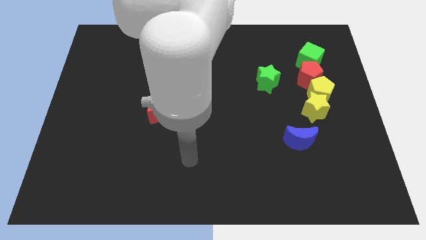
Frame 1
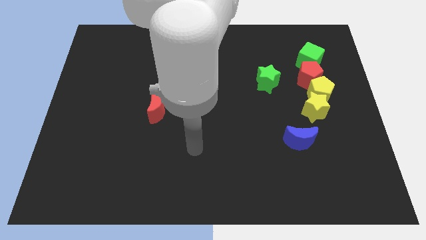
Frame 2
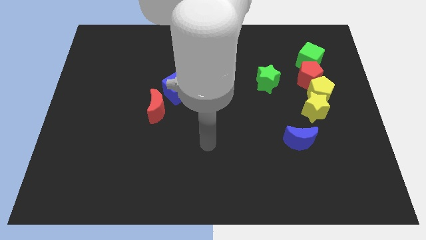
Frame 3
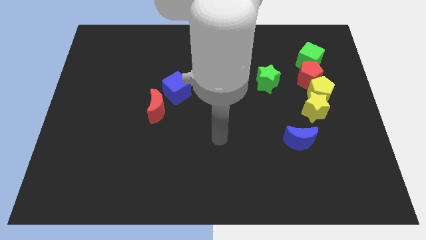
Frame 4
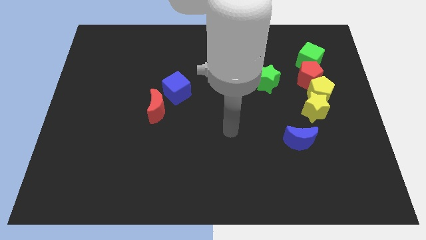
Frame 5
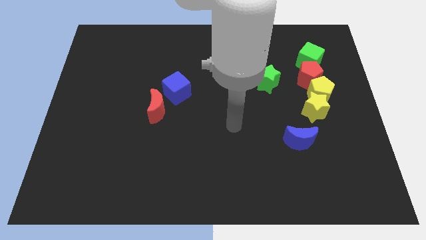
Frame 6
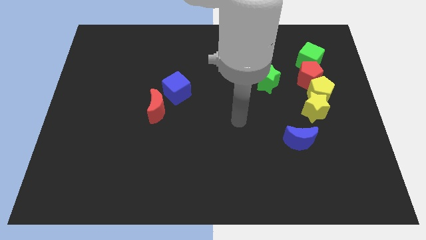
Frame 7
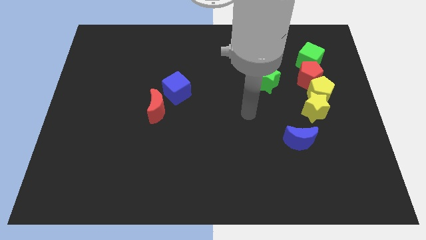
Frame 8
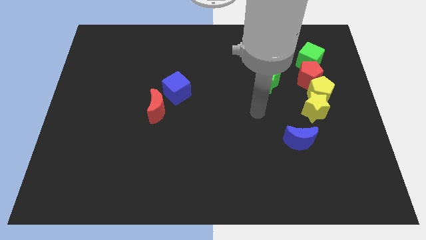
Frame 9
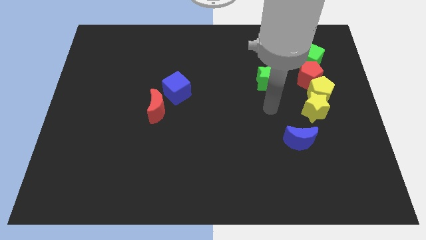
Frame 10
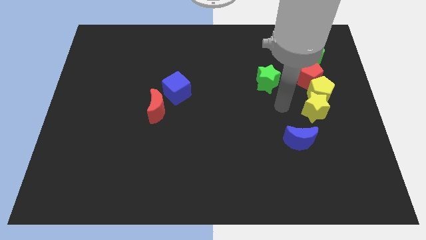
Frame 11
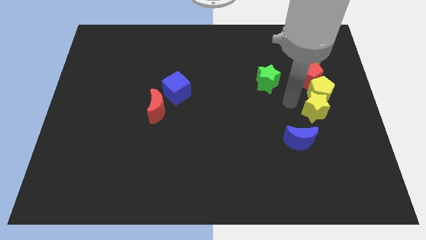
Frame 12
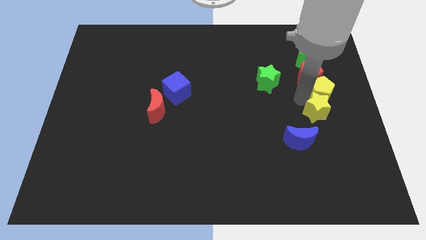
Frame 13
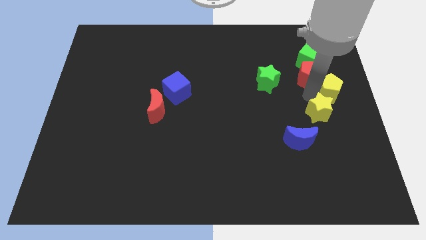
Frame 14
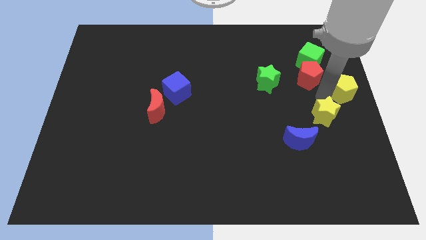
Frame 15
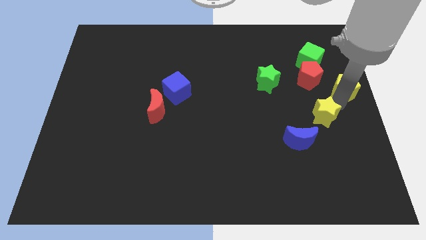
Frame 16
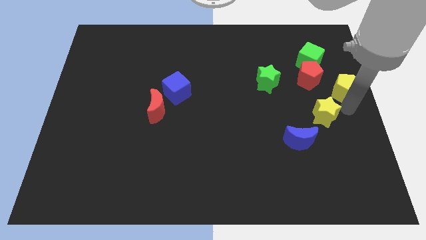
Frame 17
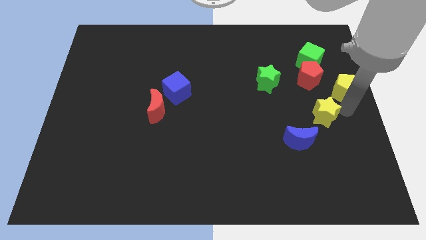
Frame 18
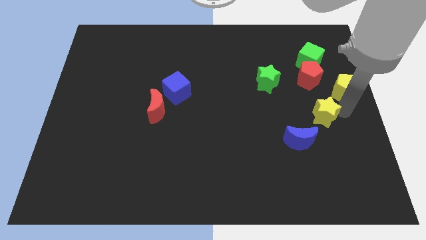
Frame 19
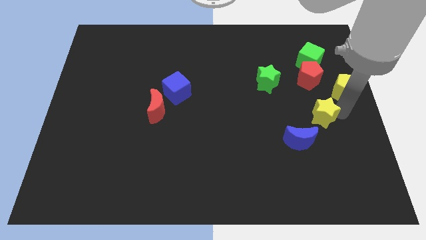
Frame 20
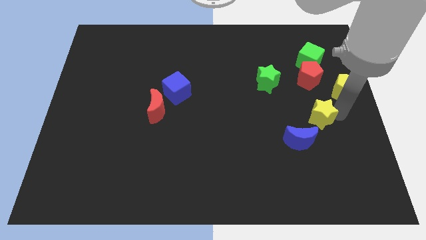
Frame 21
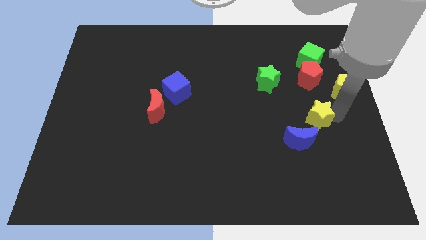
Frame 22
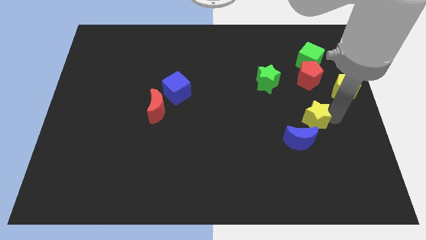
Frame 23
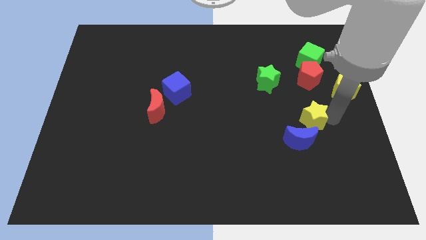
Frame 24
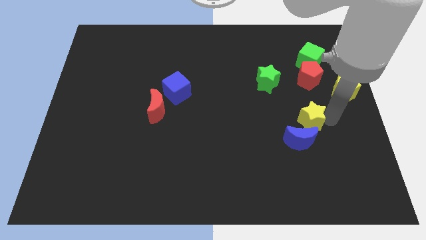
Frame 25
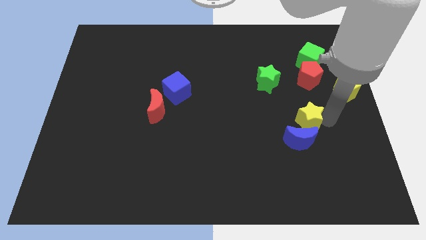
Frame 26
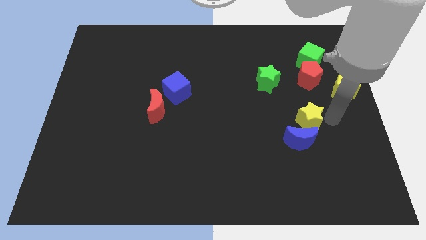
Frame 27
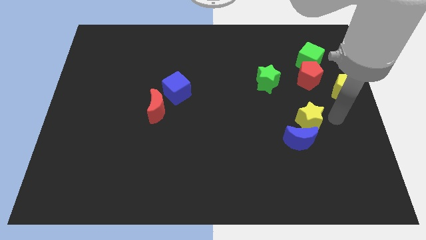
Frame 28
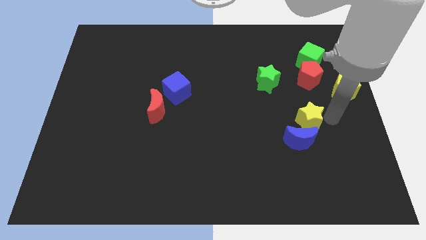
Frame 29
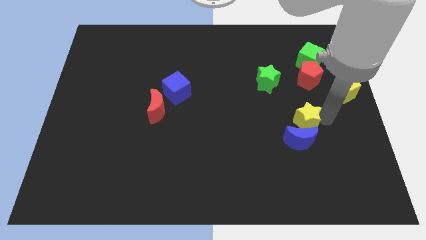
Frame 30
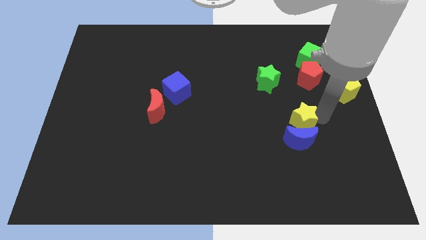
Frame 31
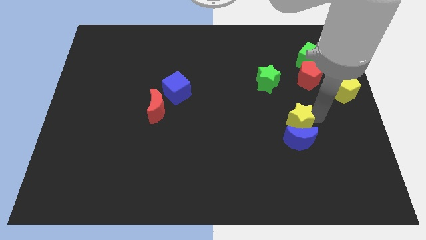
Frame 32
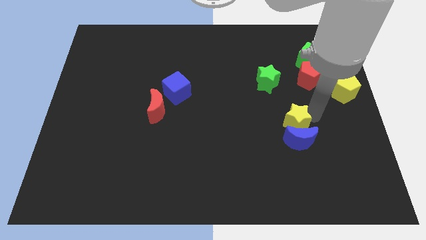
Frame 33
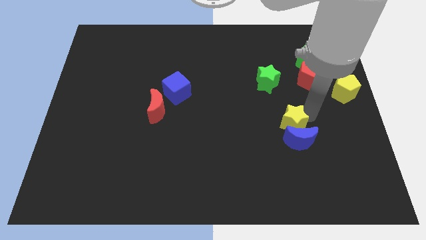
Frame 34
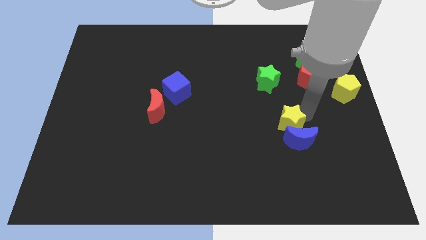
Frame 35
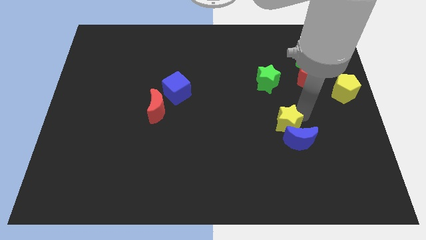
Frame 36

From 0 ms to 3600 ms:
slide the yellow star a little downwards and then to the left

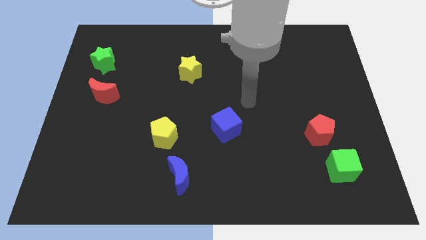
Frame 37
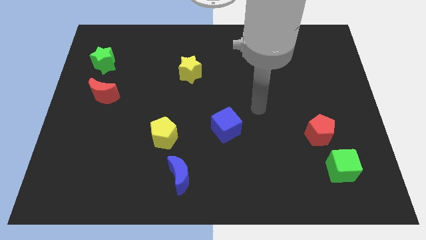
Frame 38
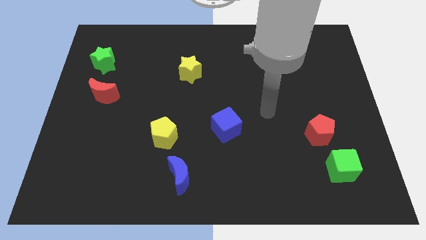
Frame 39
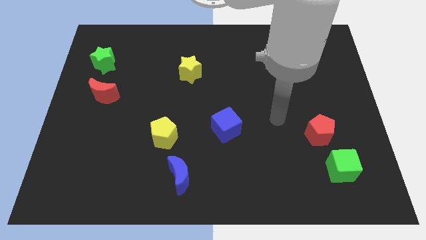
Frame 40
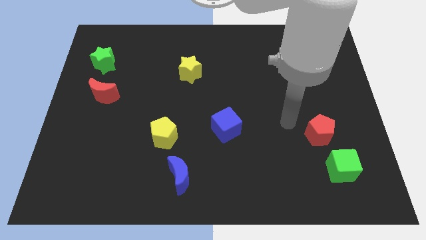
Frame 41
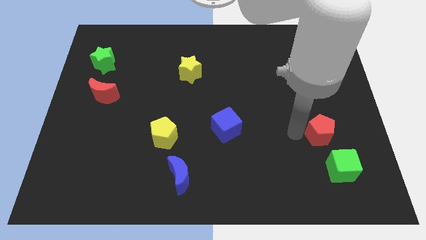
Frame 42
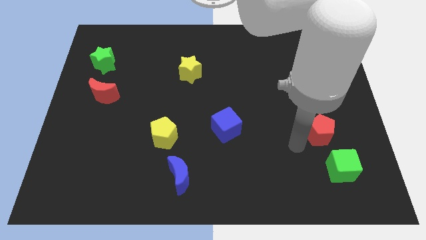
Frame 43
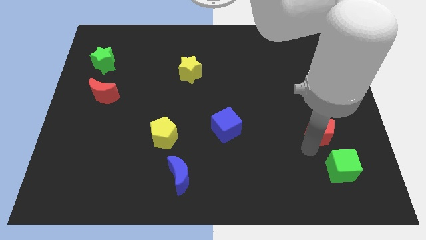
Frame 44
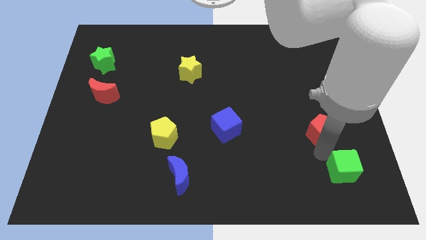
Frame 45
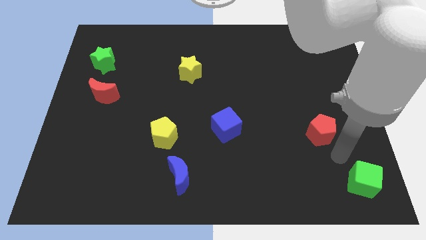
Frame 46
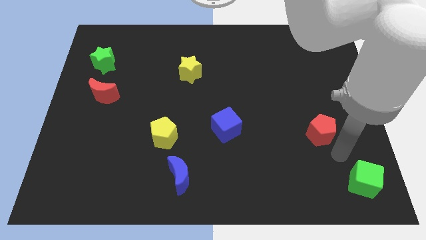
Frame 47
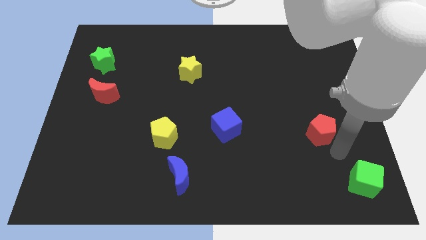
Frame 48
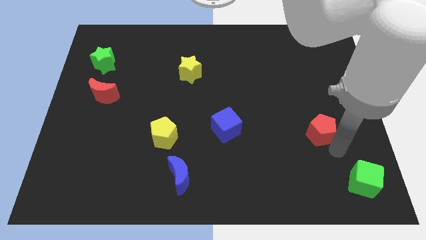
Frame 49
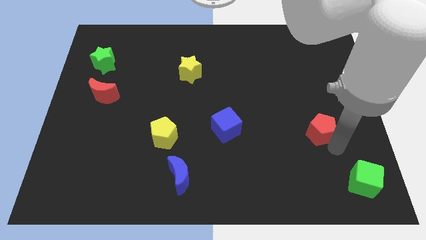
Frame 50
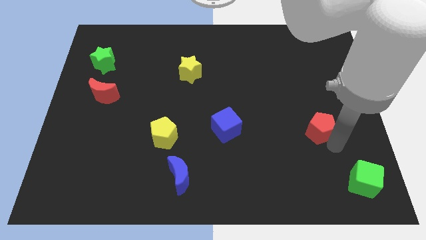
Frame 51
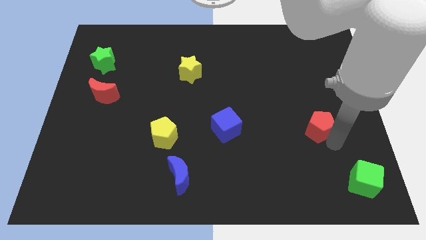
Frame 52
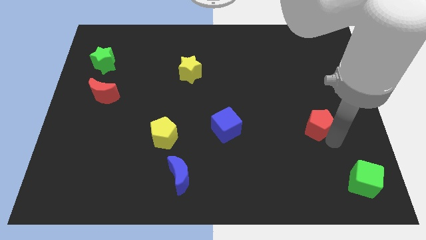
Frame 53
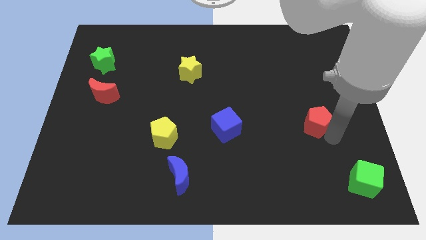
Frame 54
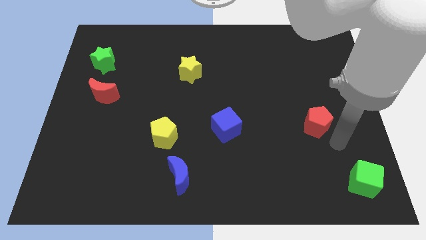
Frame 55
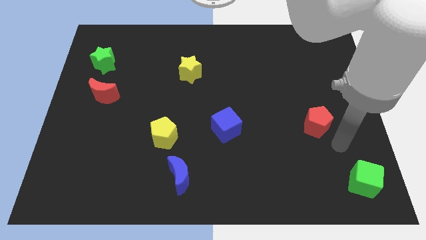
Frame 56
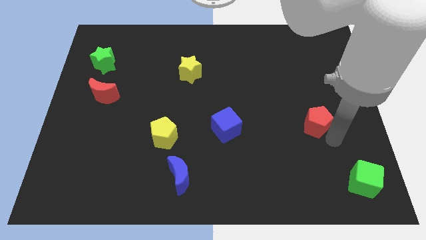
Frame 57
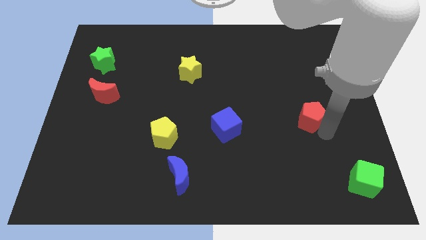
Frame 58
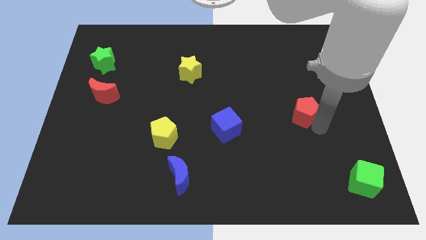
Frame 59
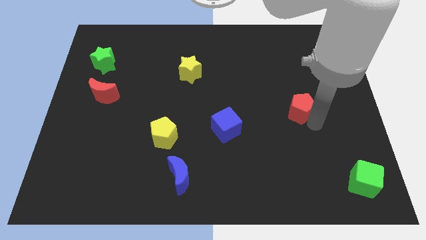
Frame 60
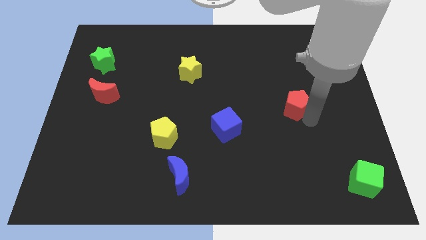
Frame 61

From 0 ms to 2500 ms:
move the red pentagon a little bit diagonally up and left

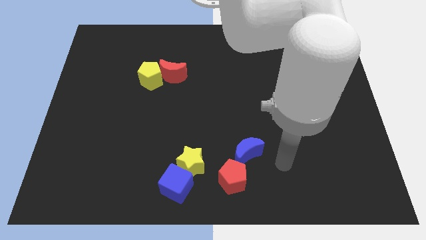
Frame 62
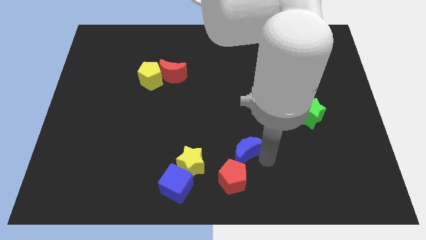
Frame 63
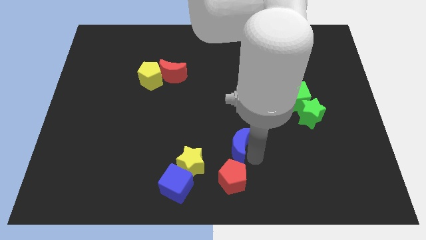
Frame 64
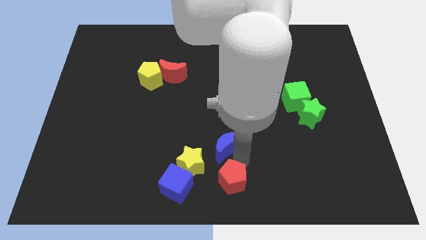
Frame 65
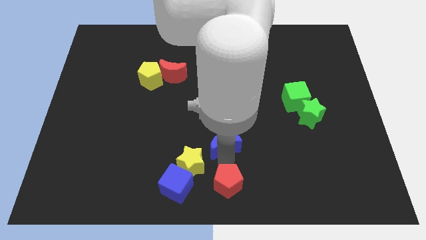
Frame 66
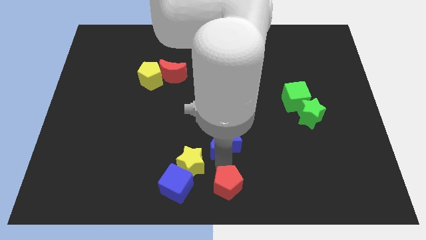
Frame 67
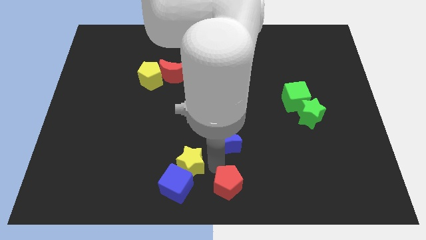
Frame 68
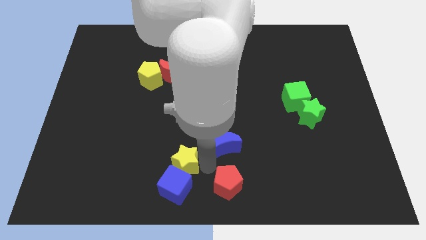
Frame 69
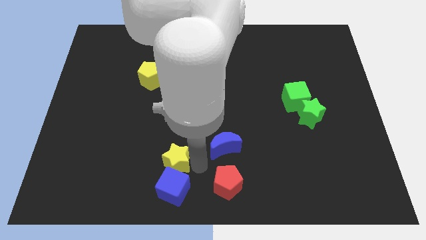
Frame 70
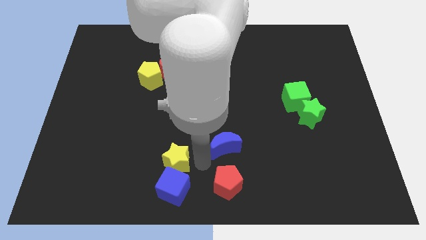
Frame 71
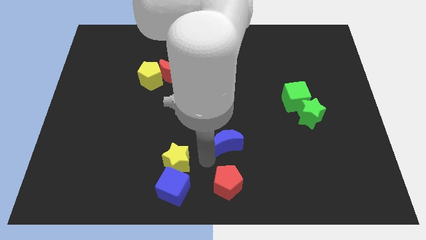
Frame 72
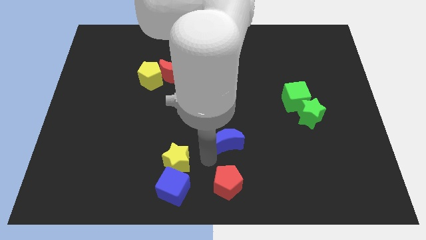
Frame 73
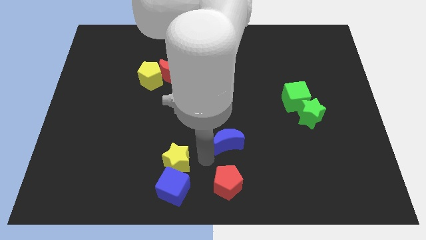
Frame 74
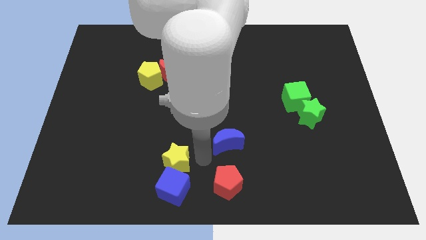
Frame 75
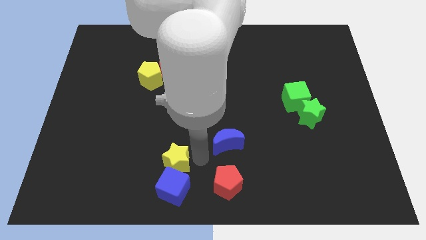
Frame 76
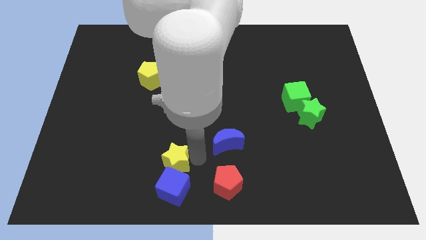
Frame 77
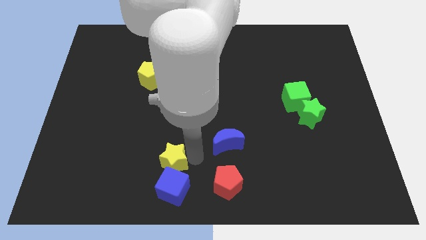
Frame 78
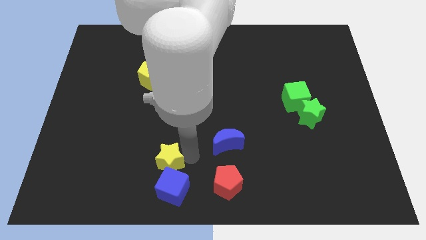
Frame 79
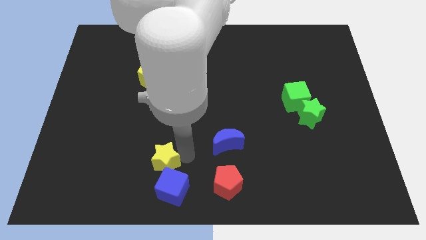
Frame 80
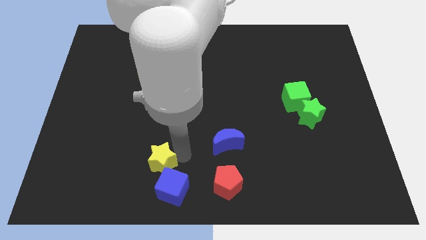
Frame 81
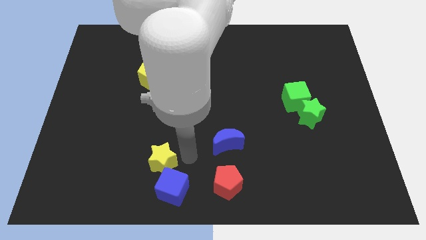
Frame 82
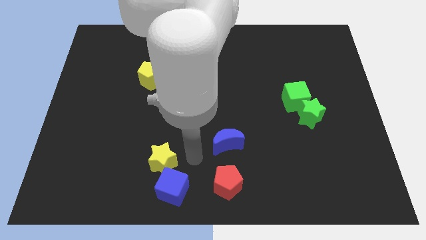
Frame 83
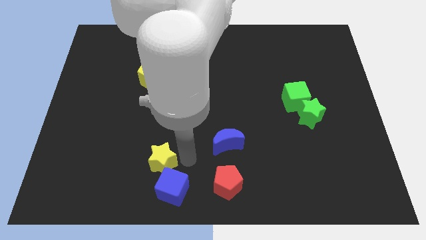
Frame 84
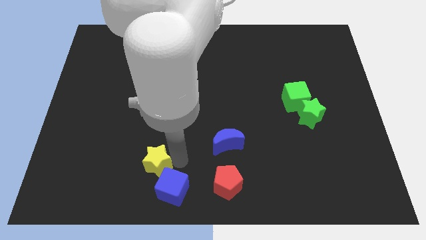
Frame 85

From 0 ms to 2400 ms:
slightly slide the yellow star left

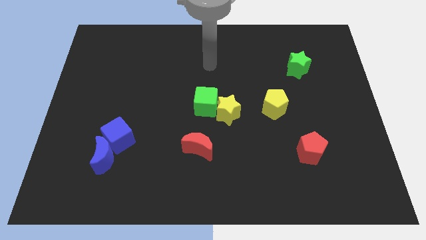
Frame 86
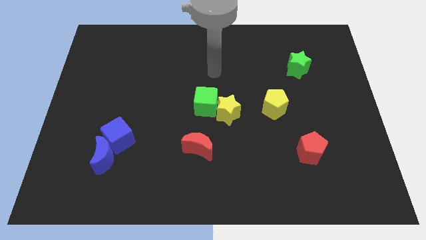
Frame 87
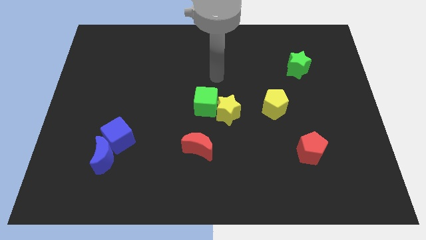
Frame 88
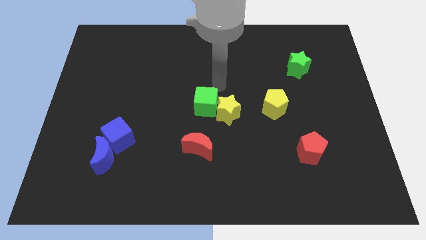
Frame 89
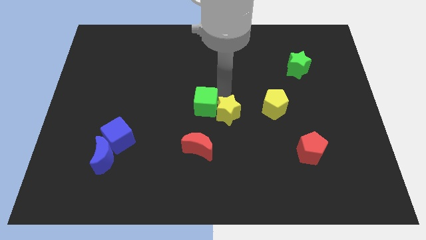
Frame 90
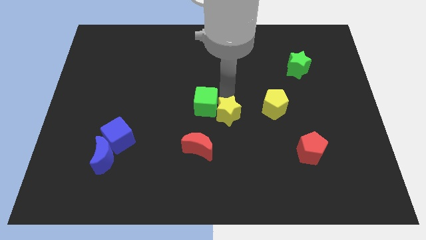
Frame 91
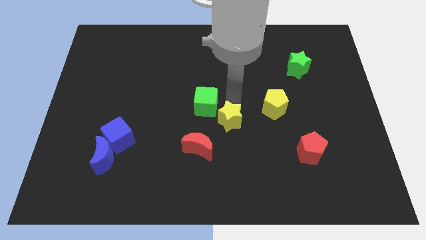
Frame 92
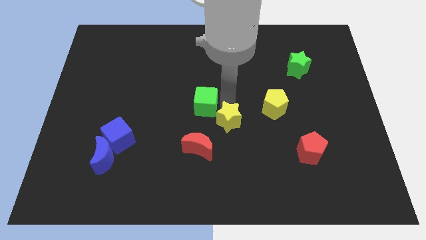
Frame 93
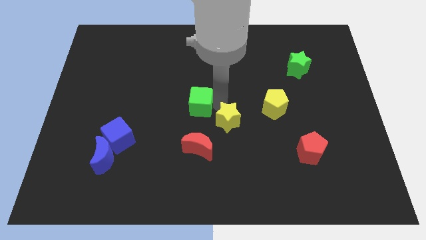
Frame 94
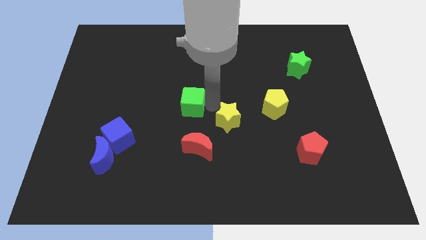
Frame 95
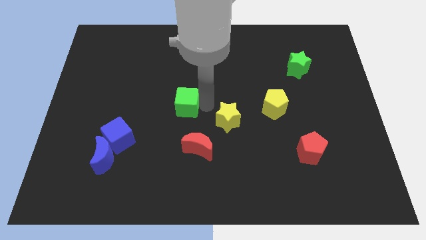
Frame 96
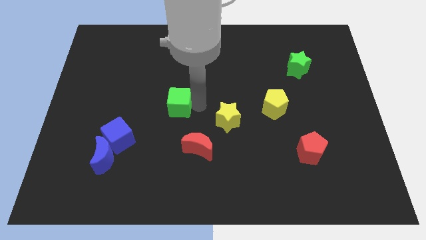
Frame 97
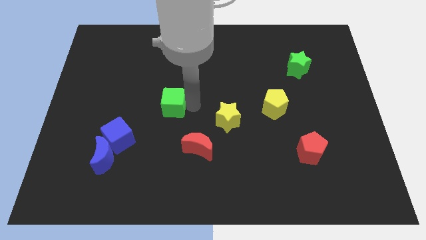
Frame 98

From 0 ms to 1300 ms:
move the green cube left a little bit
